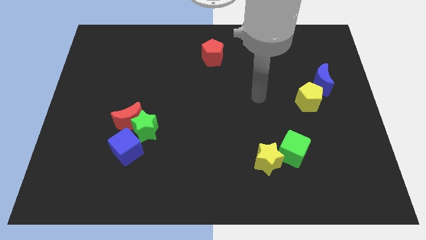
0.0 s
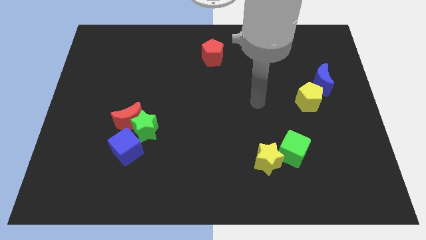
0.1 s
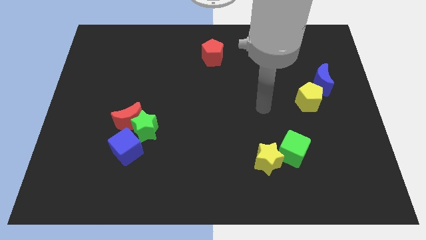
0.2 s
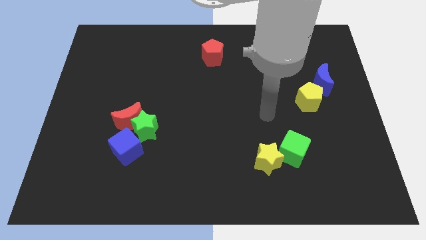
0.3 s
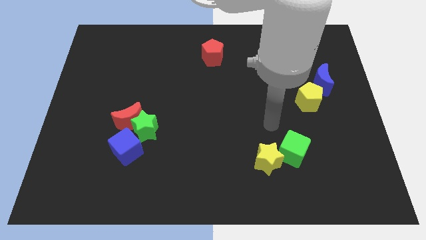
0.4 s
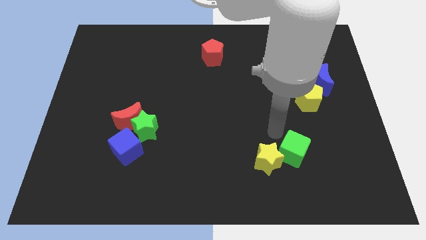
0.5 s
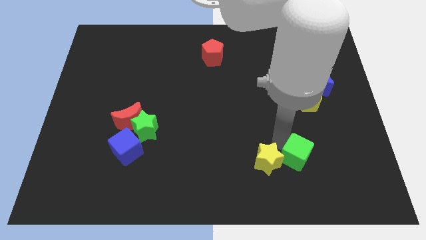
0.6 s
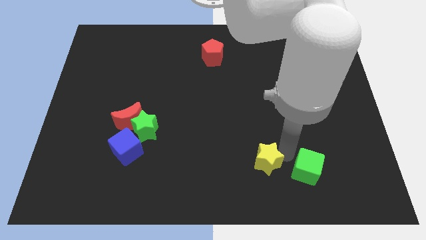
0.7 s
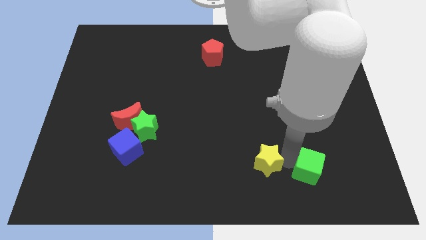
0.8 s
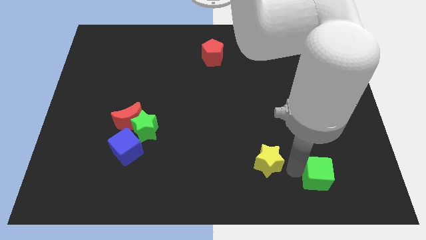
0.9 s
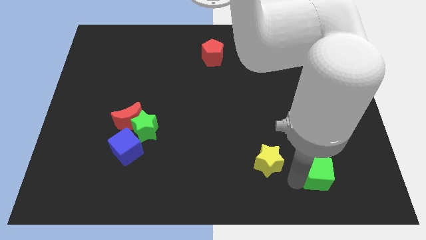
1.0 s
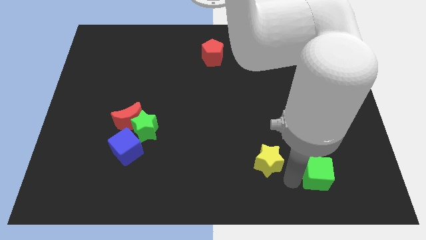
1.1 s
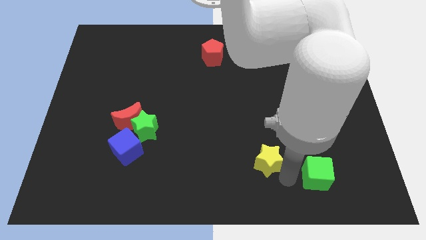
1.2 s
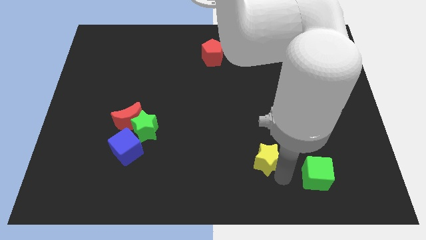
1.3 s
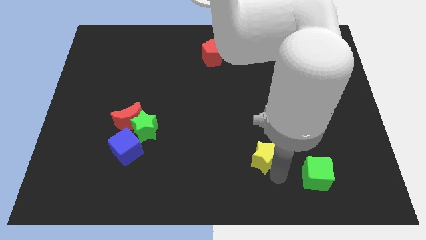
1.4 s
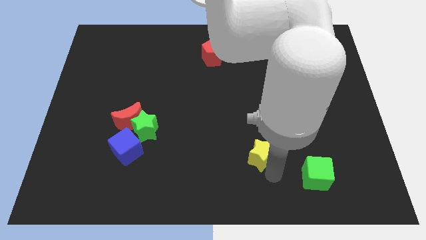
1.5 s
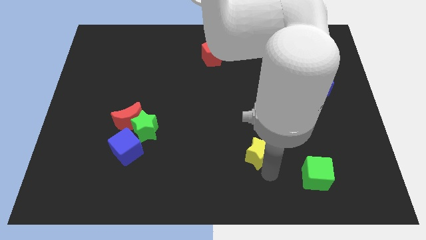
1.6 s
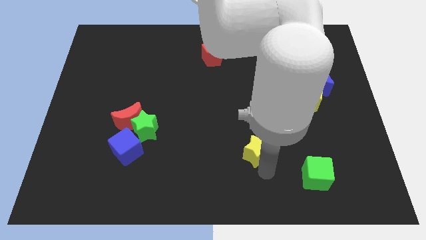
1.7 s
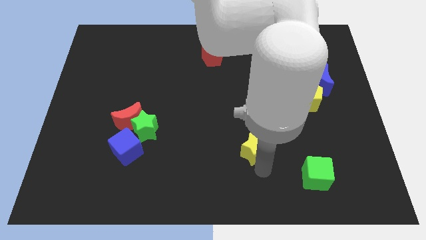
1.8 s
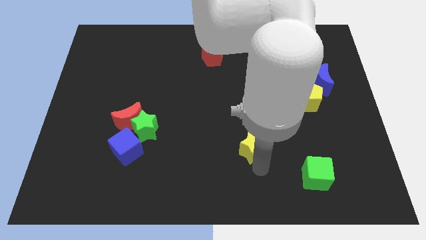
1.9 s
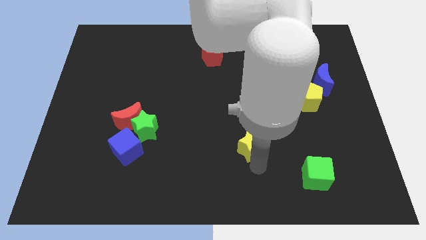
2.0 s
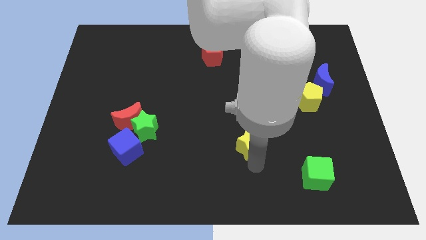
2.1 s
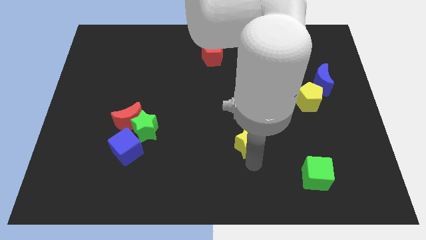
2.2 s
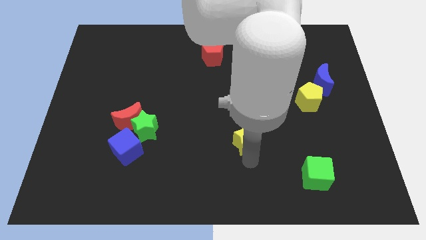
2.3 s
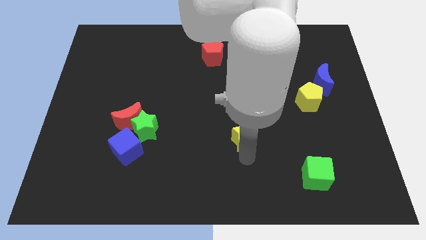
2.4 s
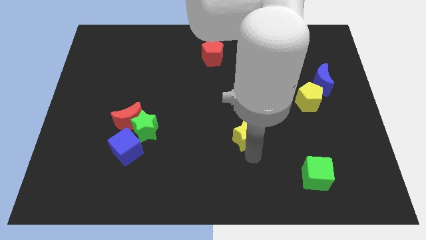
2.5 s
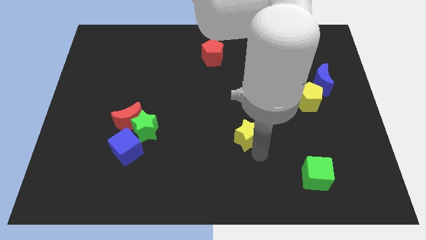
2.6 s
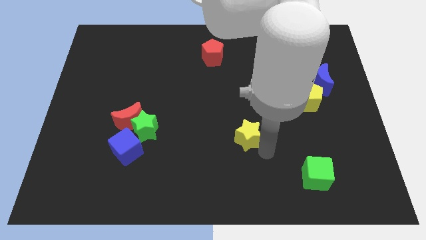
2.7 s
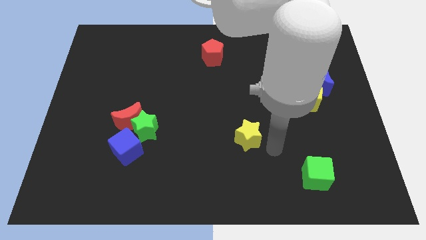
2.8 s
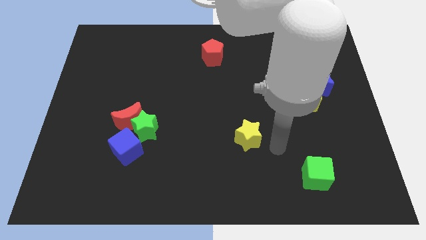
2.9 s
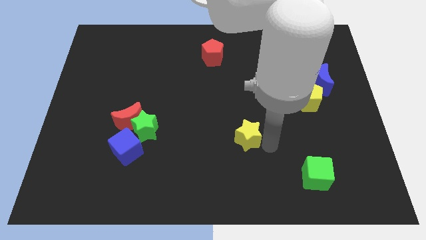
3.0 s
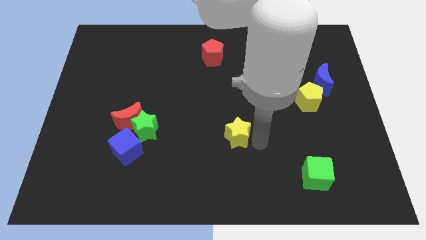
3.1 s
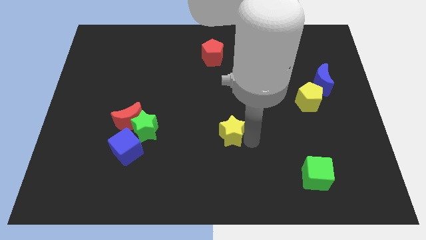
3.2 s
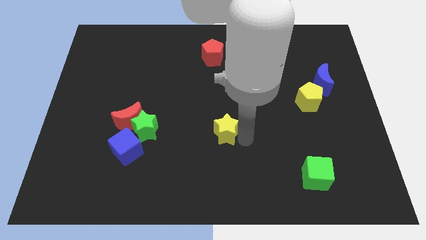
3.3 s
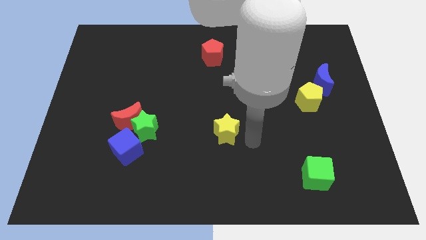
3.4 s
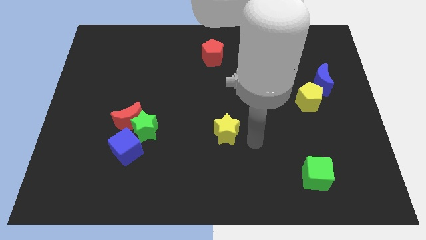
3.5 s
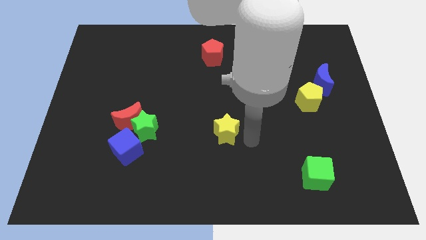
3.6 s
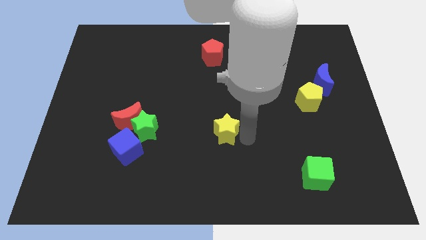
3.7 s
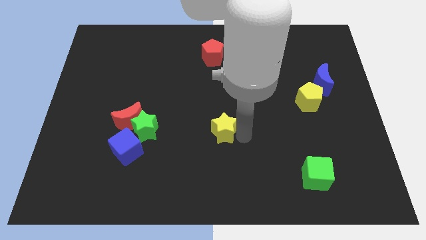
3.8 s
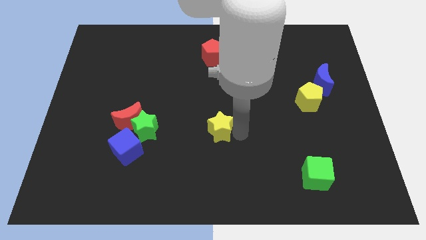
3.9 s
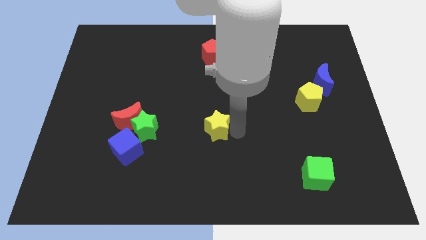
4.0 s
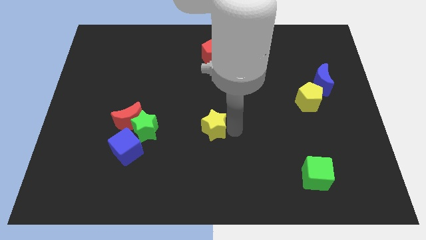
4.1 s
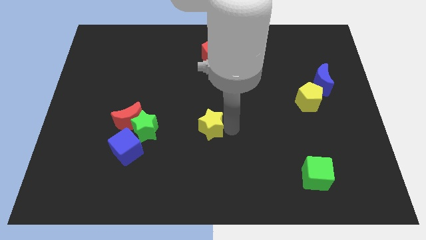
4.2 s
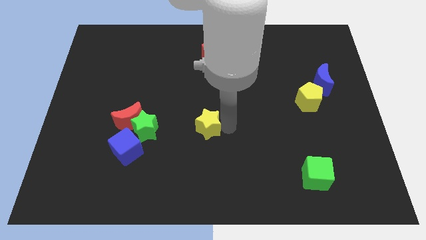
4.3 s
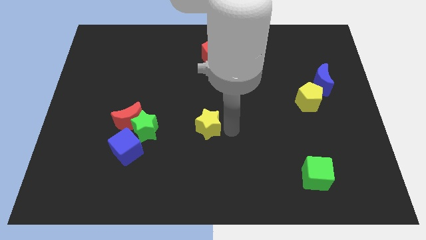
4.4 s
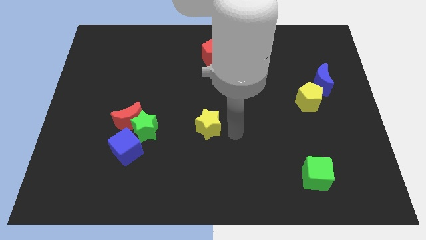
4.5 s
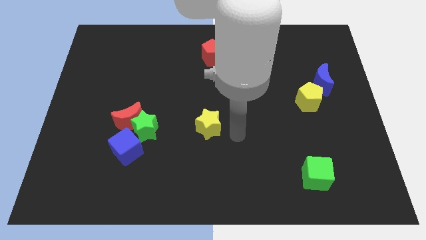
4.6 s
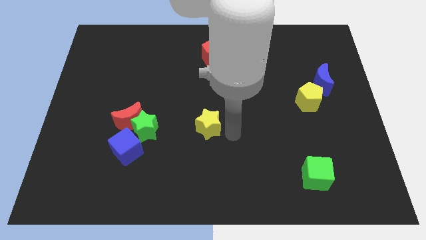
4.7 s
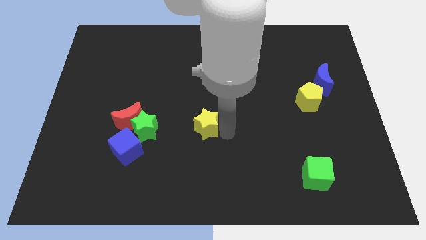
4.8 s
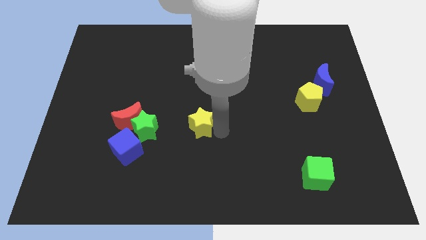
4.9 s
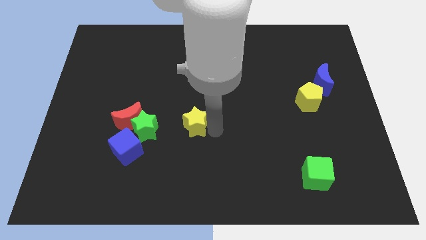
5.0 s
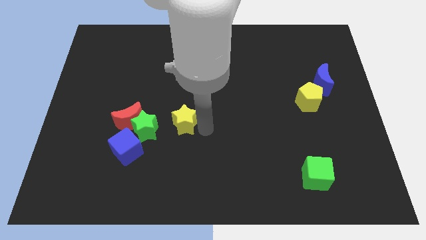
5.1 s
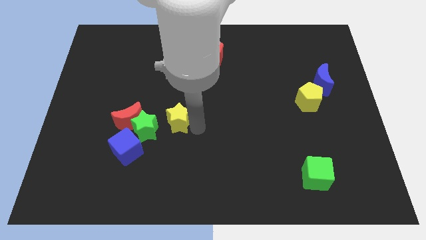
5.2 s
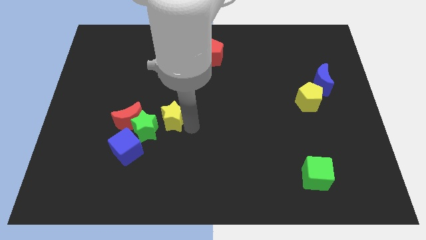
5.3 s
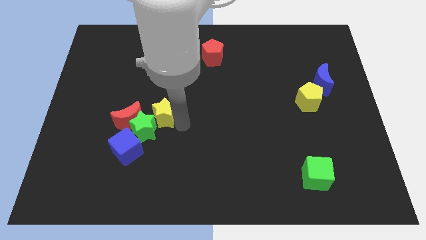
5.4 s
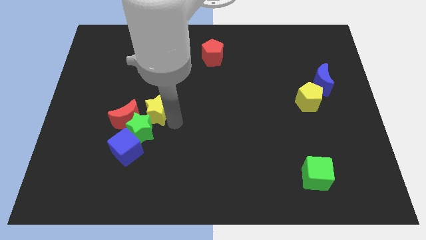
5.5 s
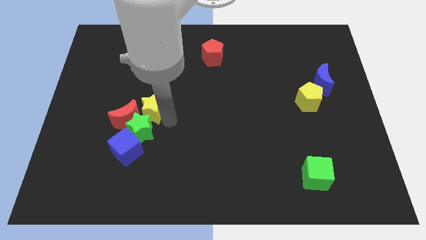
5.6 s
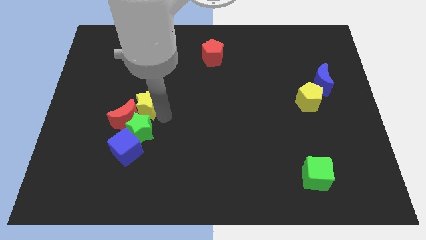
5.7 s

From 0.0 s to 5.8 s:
slide the yellow star to the top left side of the green star

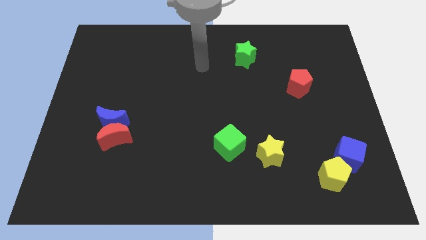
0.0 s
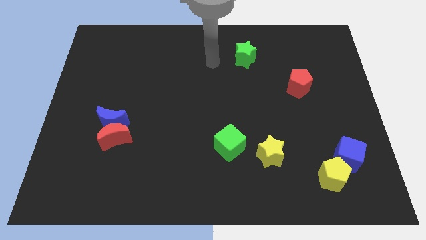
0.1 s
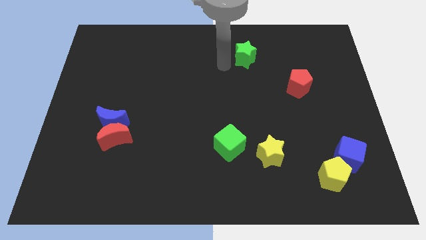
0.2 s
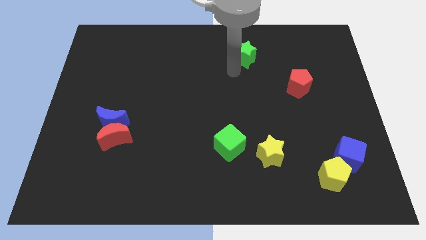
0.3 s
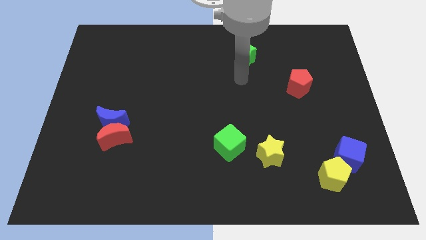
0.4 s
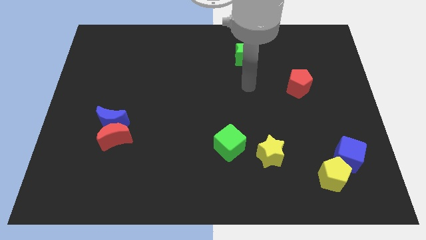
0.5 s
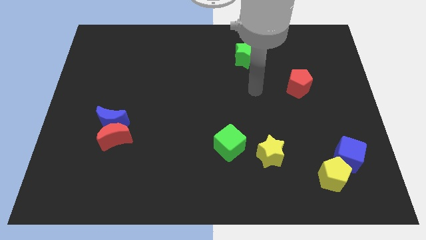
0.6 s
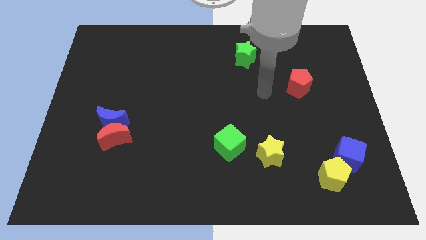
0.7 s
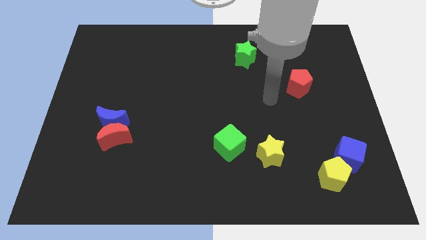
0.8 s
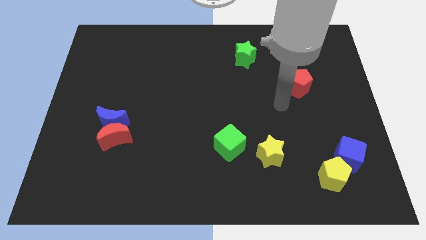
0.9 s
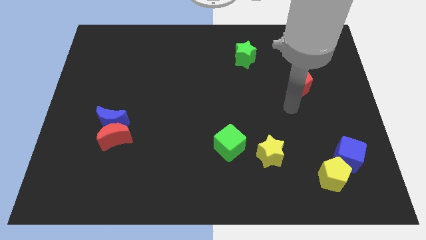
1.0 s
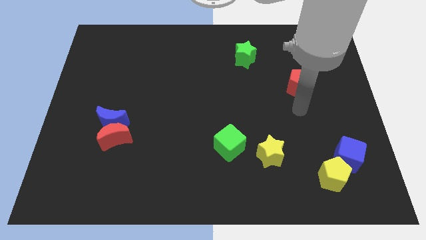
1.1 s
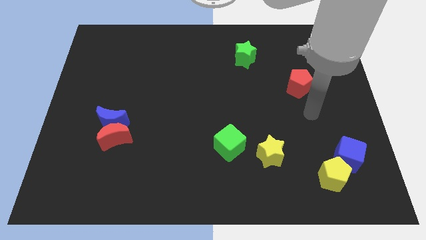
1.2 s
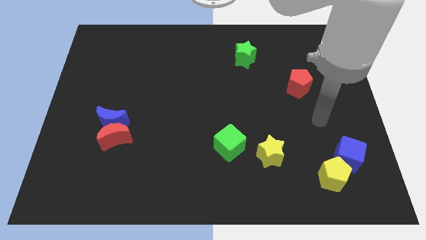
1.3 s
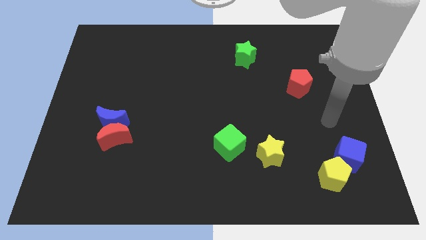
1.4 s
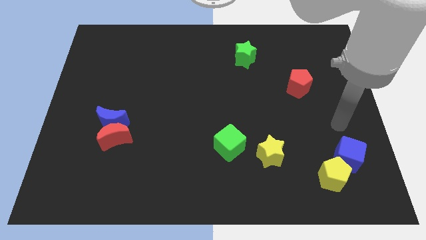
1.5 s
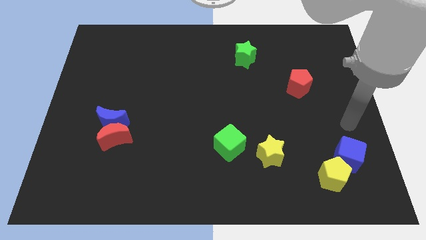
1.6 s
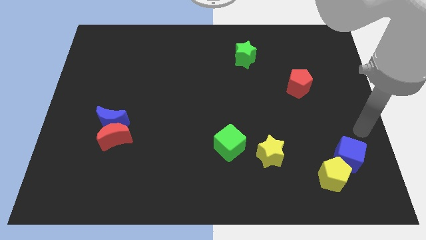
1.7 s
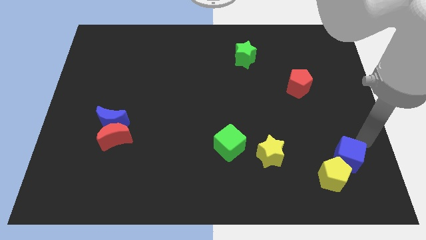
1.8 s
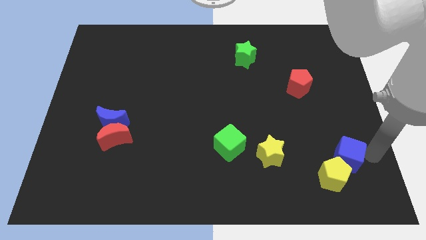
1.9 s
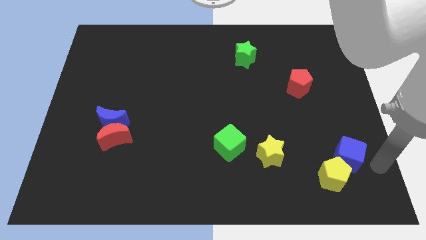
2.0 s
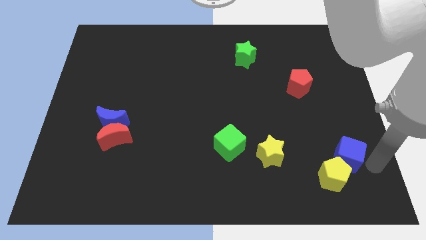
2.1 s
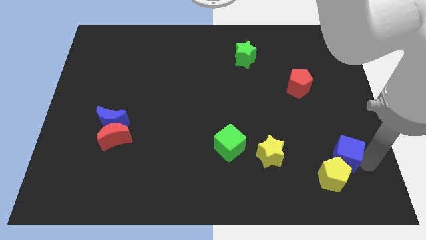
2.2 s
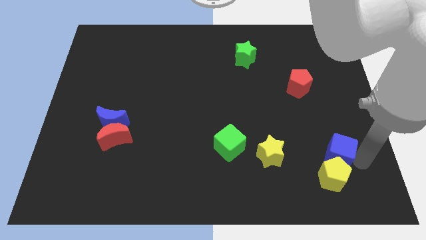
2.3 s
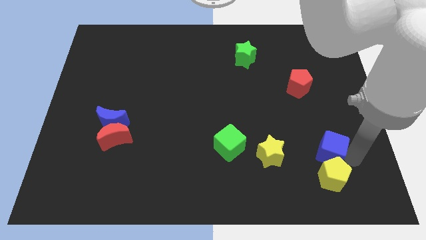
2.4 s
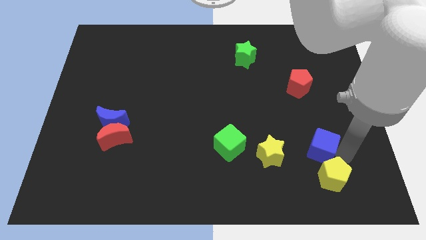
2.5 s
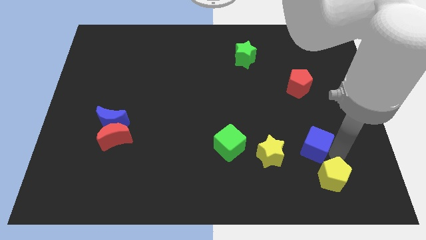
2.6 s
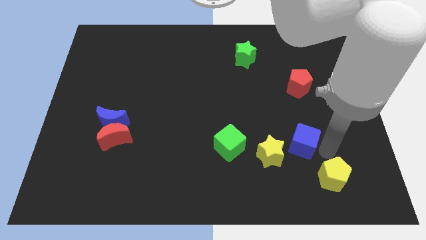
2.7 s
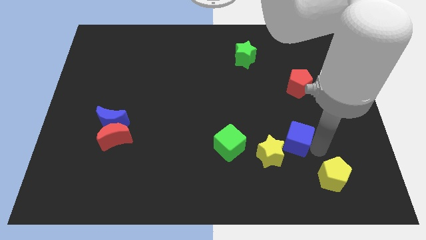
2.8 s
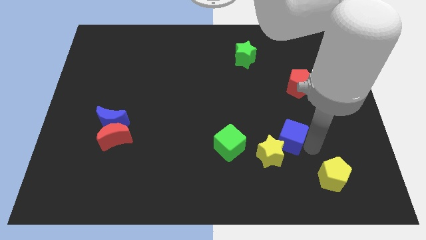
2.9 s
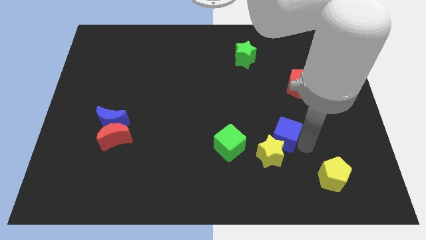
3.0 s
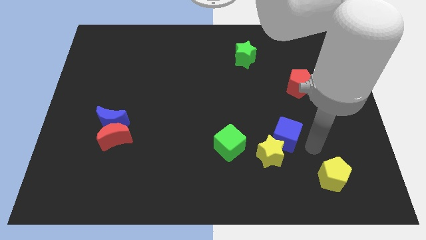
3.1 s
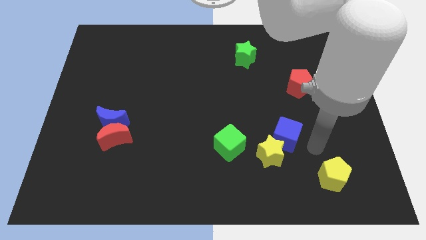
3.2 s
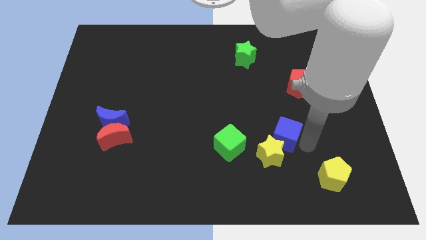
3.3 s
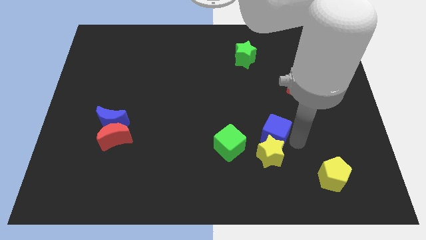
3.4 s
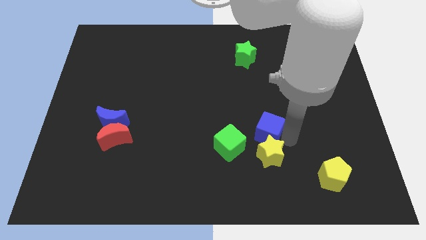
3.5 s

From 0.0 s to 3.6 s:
put the blue cube to the top right side of the green cube
